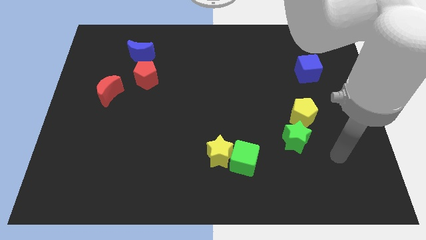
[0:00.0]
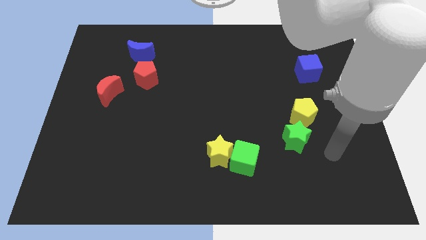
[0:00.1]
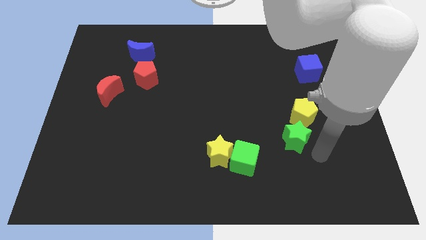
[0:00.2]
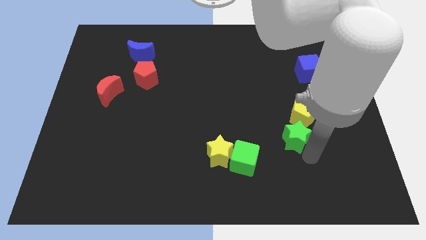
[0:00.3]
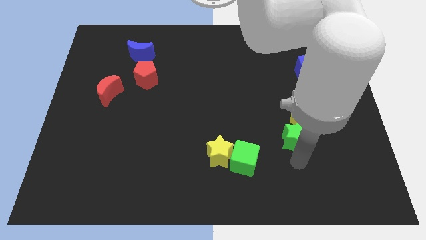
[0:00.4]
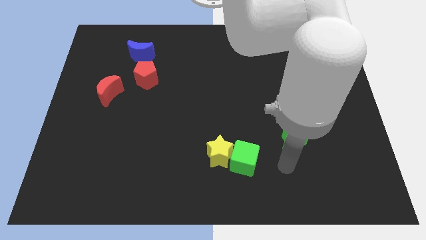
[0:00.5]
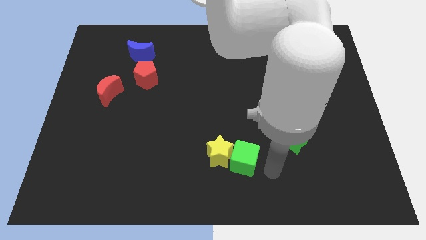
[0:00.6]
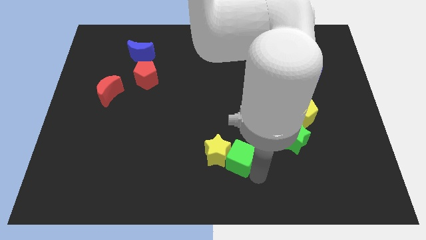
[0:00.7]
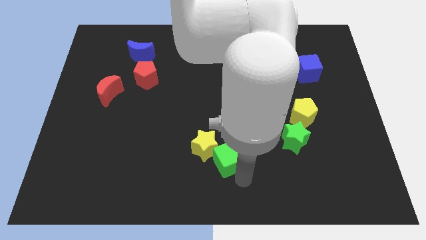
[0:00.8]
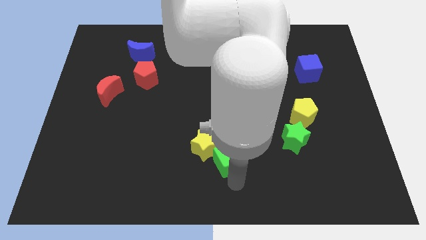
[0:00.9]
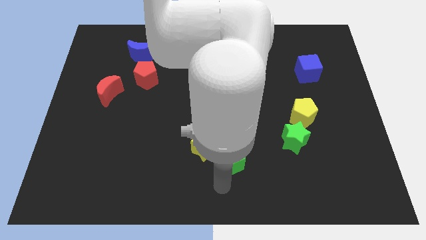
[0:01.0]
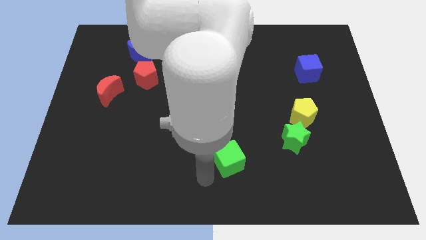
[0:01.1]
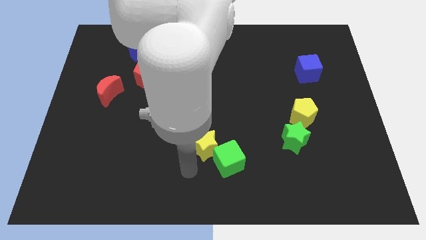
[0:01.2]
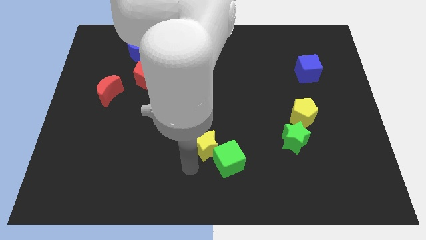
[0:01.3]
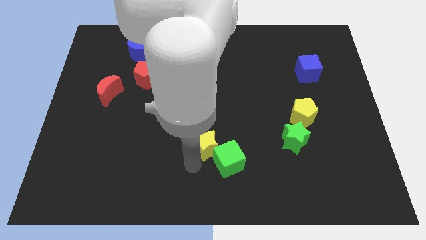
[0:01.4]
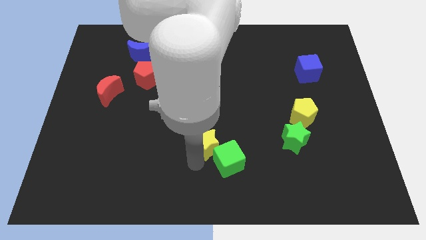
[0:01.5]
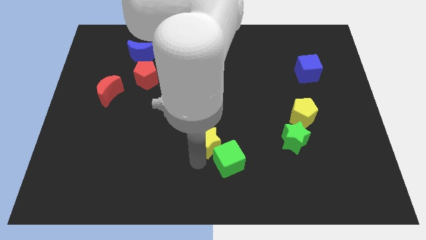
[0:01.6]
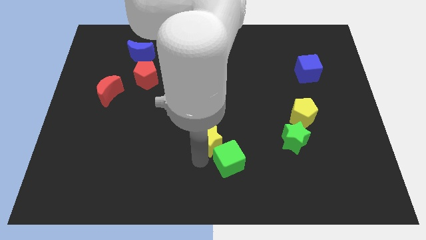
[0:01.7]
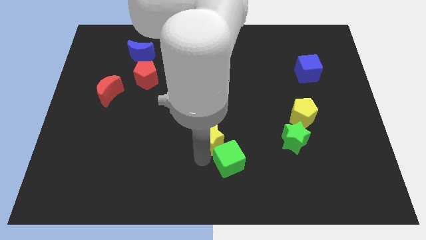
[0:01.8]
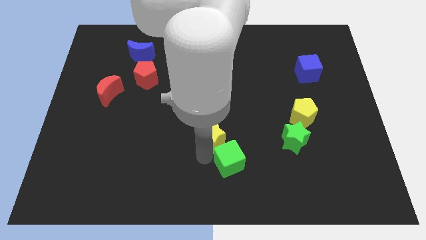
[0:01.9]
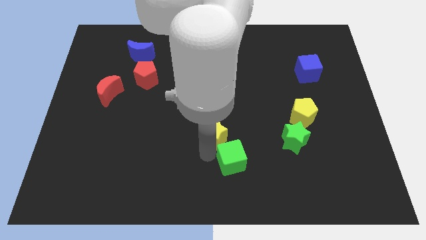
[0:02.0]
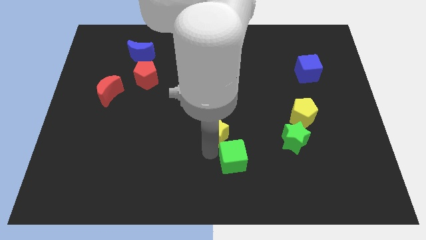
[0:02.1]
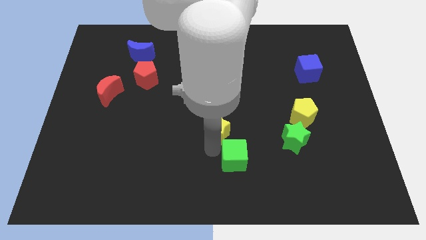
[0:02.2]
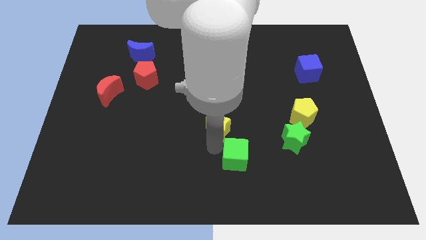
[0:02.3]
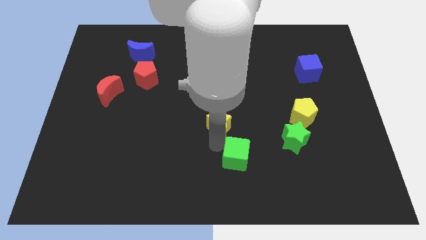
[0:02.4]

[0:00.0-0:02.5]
slightly move the yellow star upwards

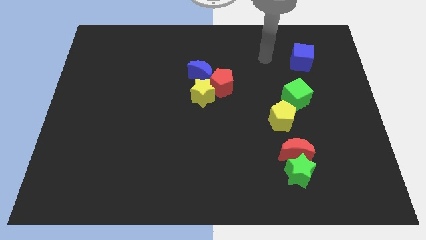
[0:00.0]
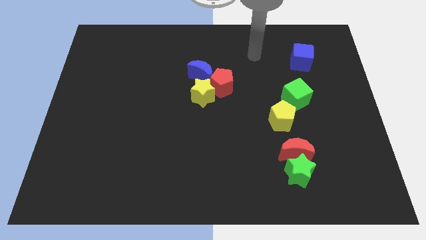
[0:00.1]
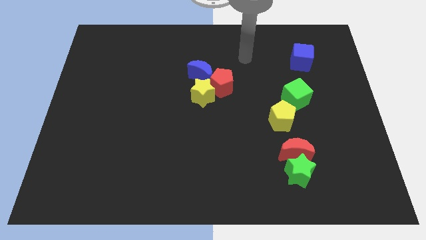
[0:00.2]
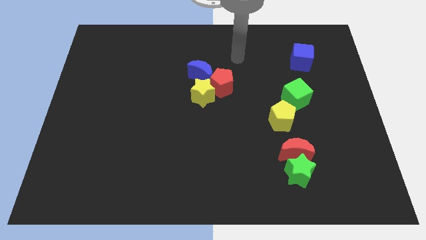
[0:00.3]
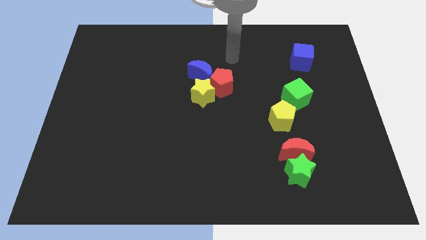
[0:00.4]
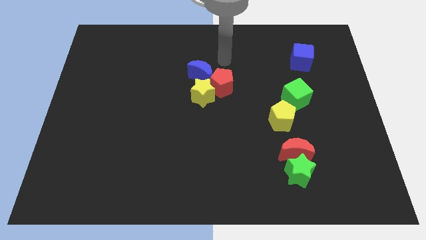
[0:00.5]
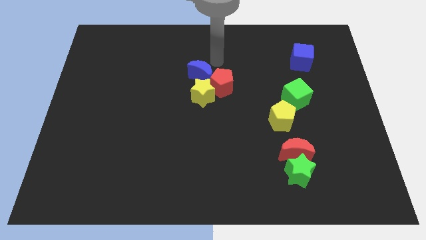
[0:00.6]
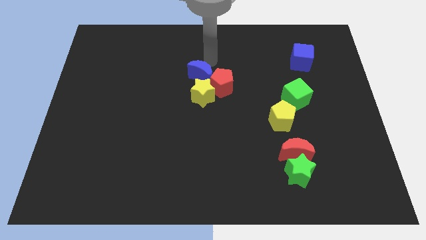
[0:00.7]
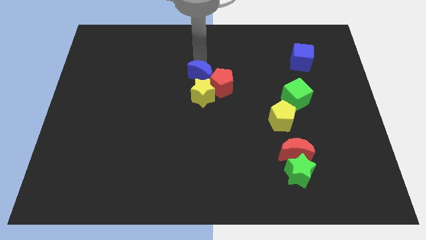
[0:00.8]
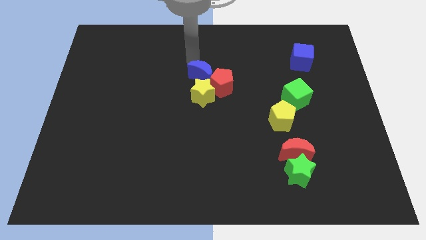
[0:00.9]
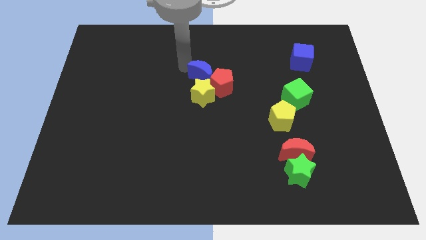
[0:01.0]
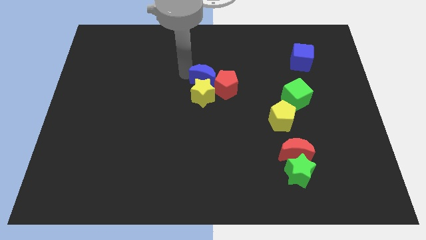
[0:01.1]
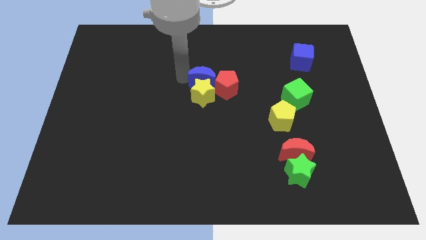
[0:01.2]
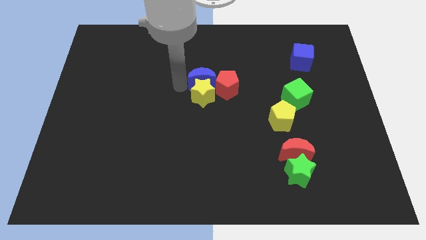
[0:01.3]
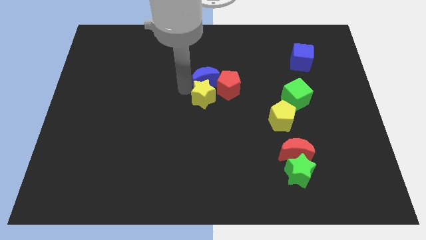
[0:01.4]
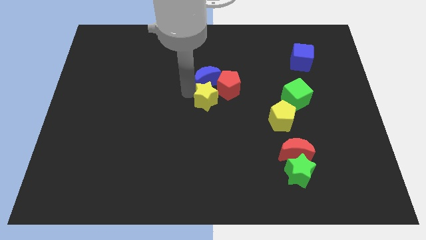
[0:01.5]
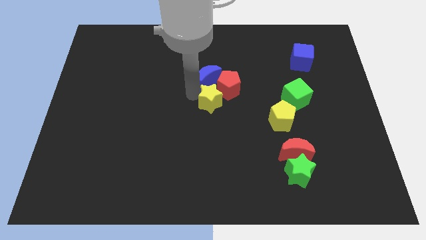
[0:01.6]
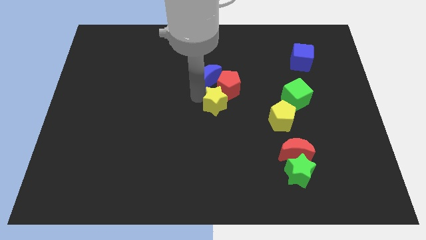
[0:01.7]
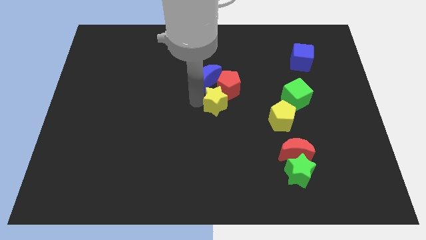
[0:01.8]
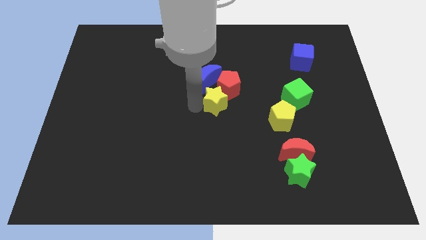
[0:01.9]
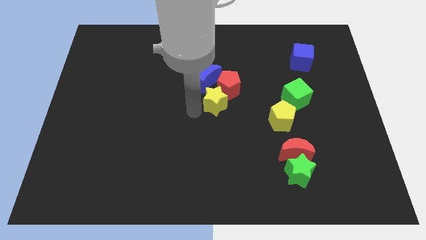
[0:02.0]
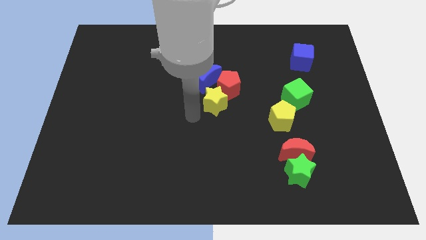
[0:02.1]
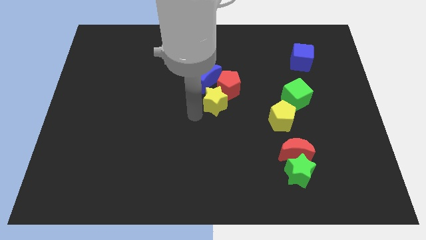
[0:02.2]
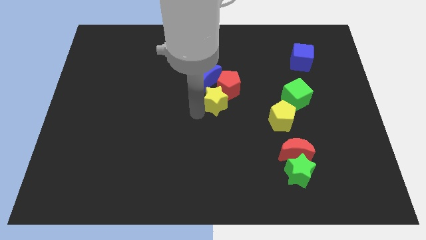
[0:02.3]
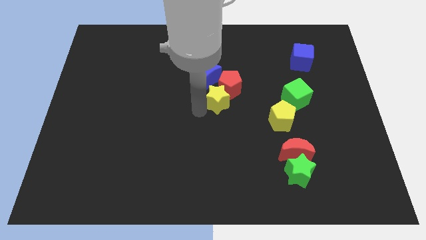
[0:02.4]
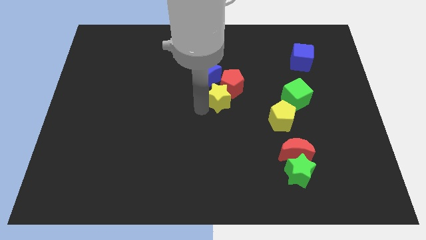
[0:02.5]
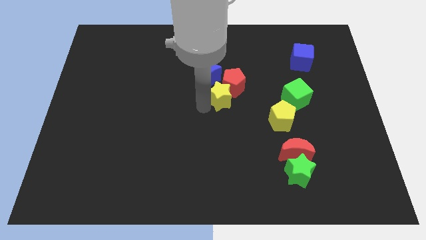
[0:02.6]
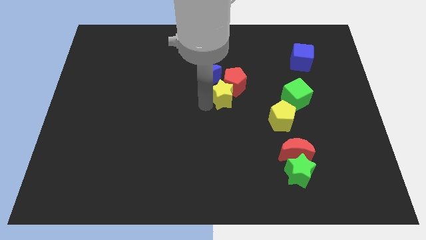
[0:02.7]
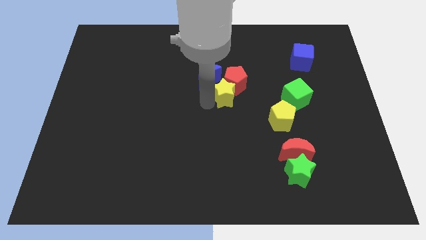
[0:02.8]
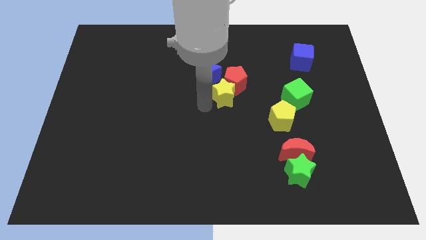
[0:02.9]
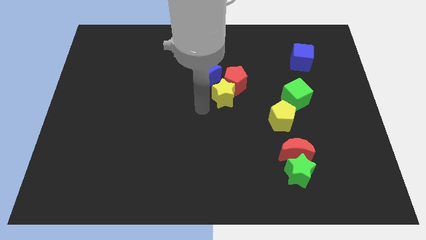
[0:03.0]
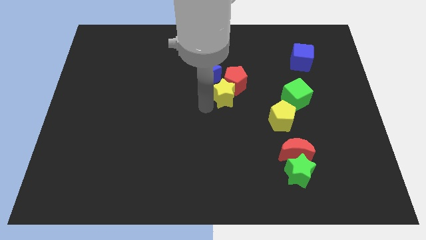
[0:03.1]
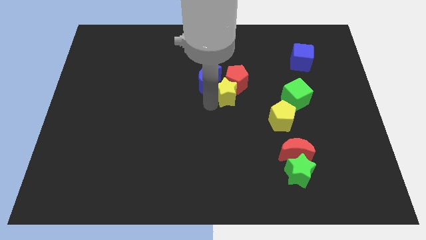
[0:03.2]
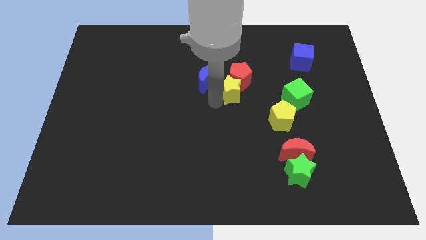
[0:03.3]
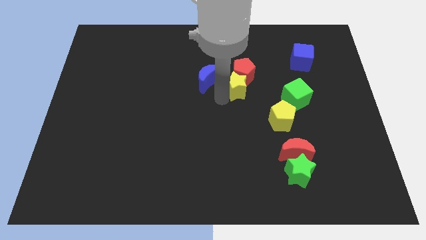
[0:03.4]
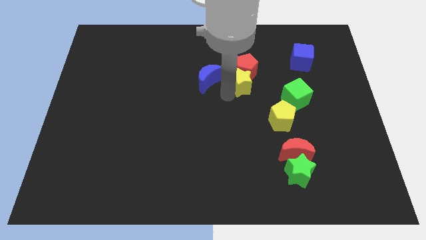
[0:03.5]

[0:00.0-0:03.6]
slide the yellow star diagonally upwards and to the right a little bit

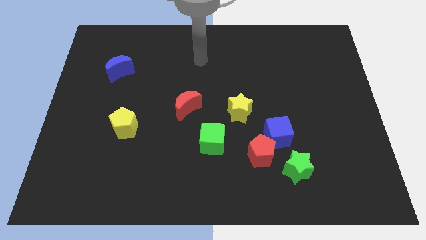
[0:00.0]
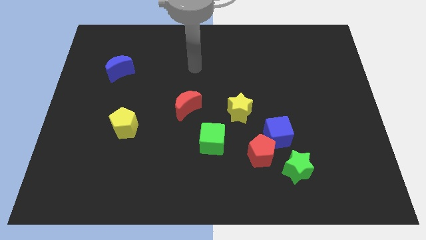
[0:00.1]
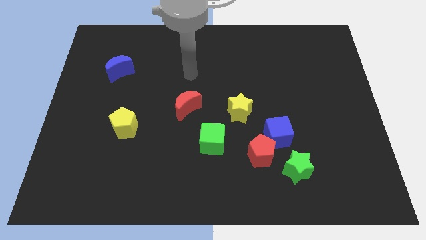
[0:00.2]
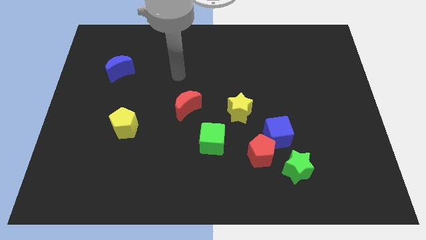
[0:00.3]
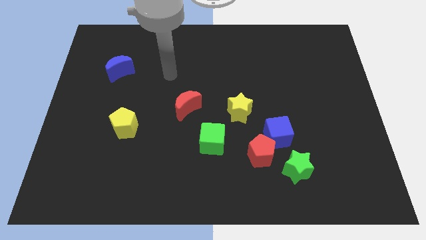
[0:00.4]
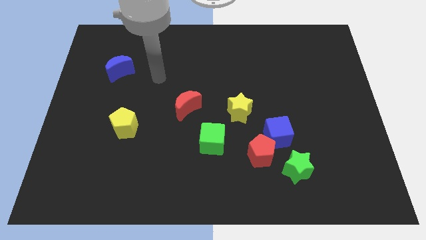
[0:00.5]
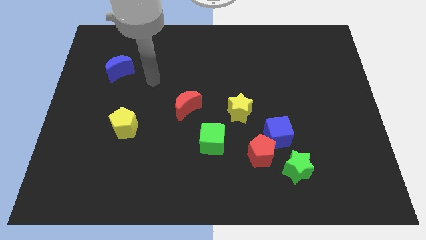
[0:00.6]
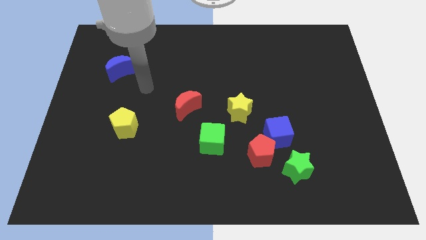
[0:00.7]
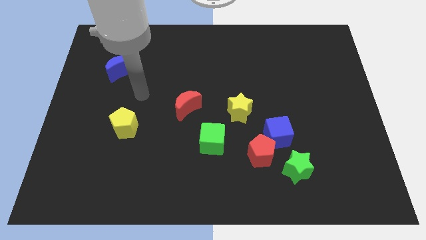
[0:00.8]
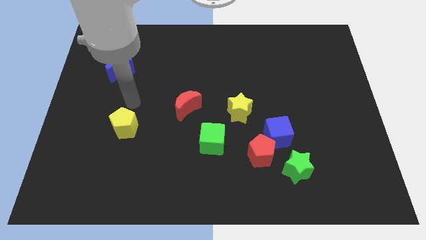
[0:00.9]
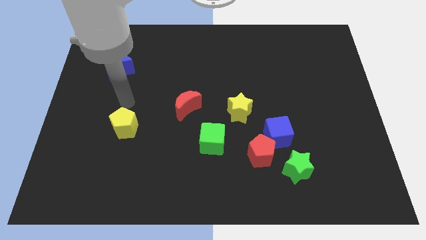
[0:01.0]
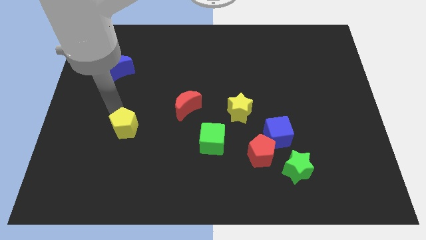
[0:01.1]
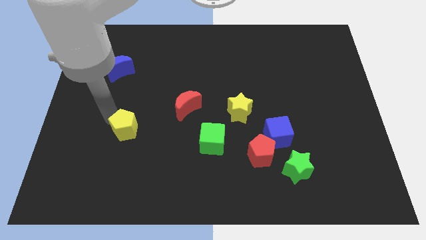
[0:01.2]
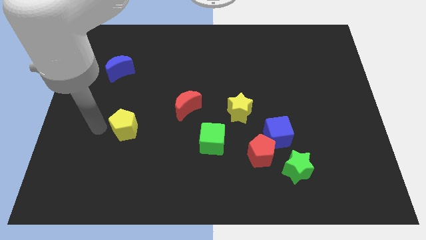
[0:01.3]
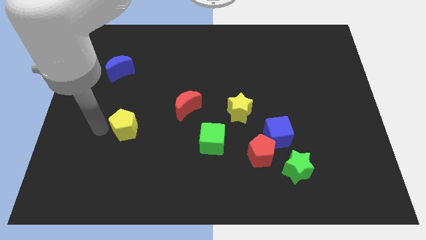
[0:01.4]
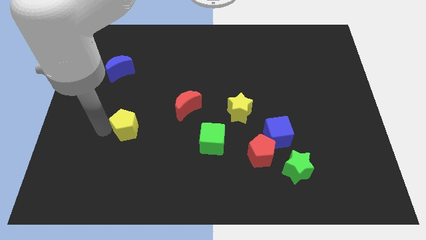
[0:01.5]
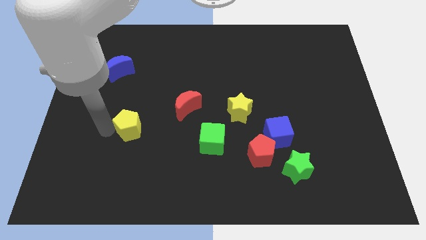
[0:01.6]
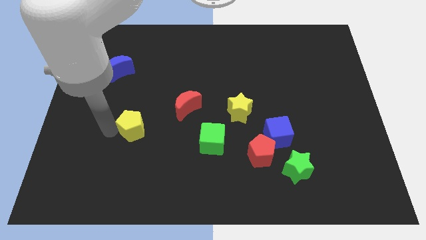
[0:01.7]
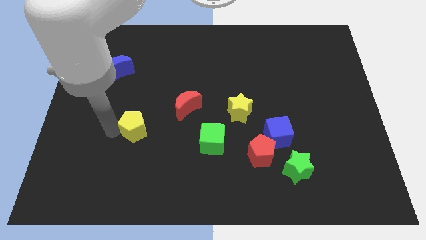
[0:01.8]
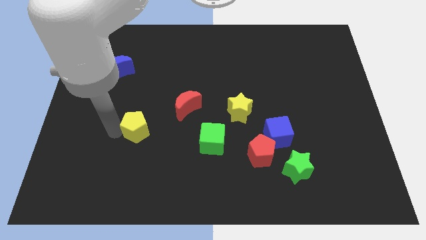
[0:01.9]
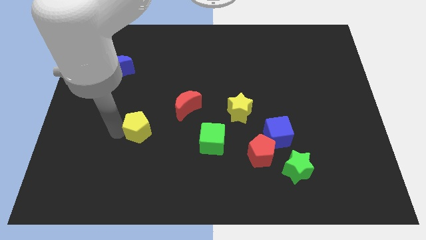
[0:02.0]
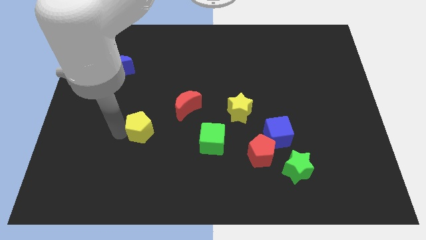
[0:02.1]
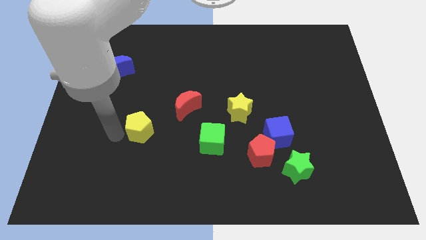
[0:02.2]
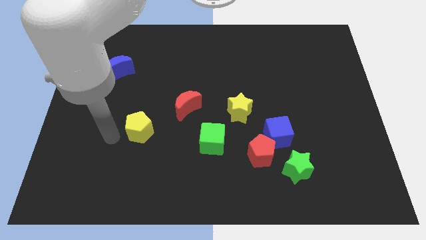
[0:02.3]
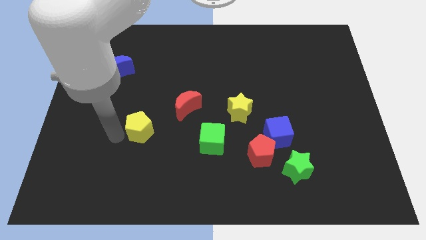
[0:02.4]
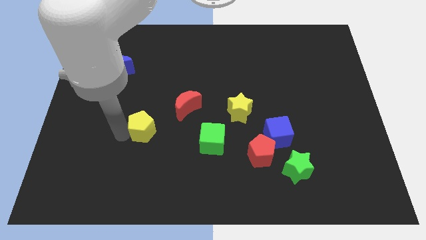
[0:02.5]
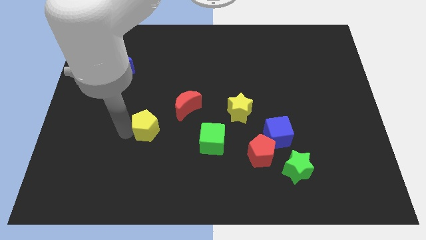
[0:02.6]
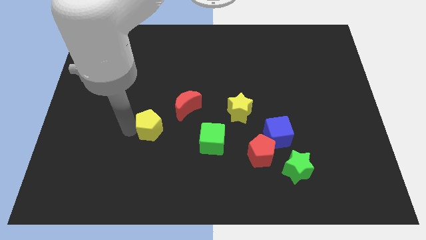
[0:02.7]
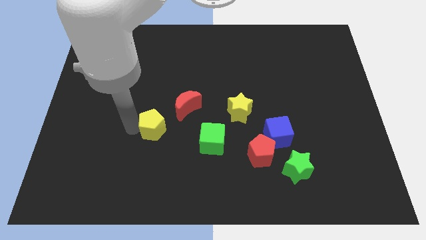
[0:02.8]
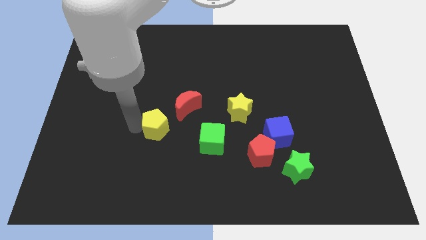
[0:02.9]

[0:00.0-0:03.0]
move the yellow pentagon a little right
